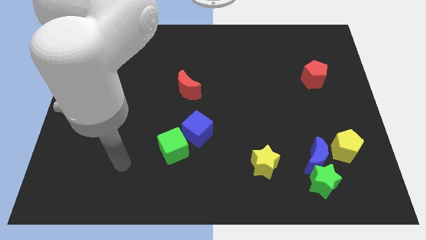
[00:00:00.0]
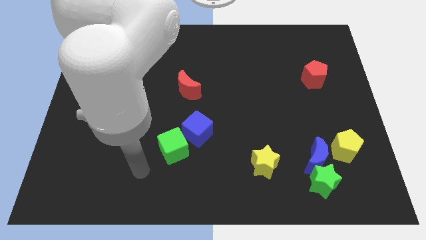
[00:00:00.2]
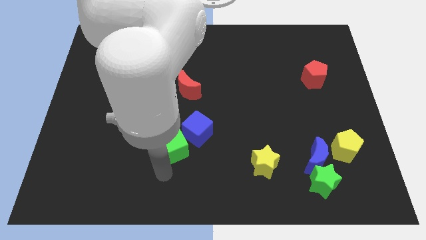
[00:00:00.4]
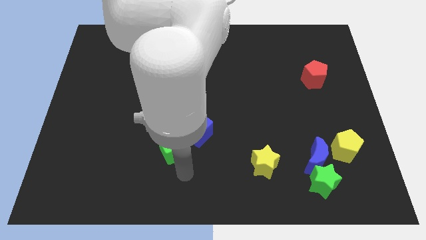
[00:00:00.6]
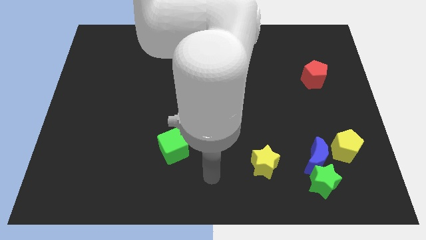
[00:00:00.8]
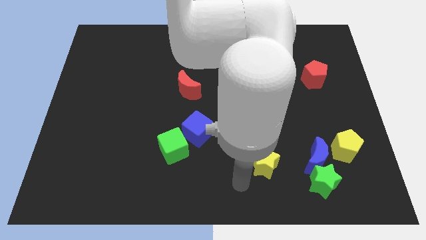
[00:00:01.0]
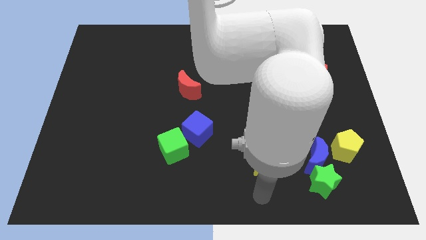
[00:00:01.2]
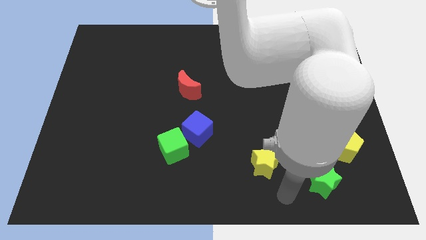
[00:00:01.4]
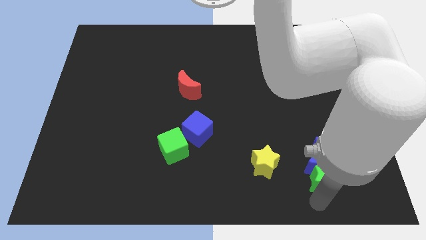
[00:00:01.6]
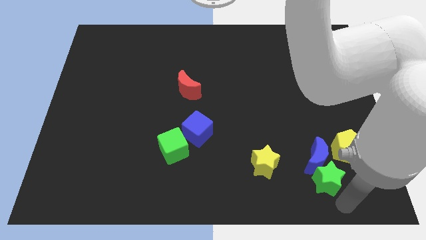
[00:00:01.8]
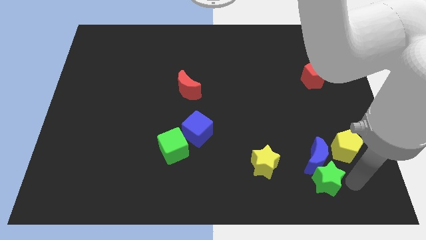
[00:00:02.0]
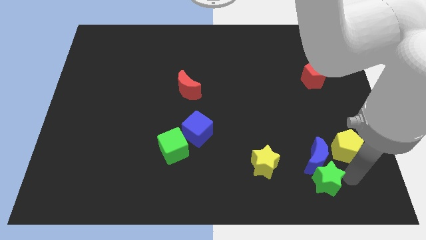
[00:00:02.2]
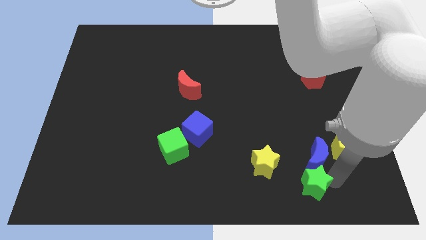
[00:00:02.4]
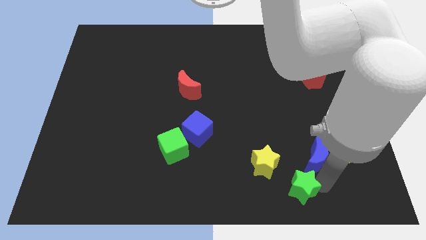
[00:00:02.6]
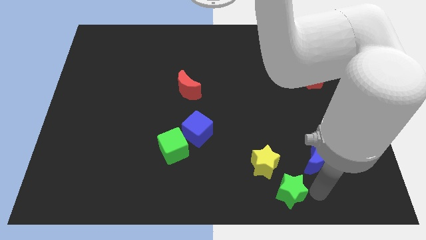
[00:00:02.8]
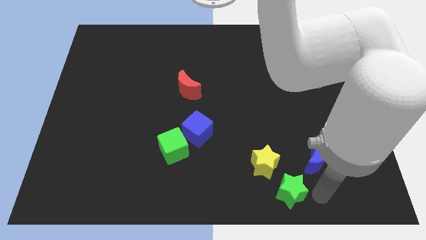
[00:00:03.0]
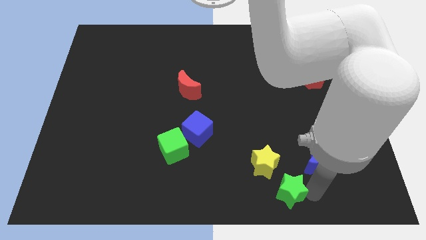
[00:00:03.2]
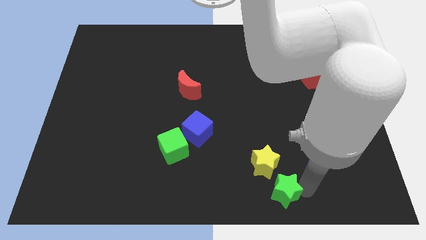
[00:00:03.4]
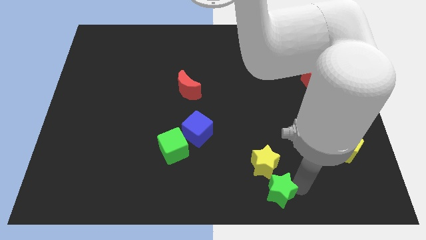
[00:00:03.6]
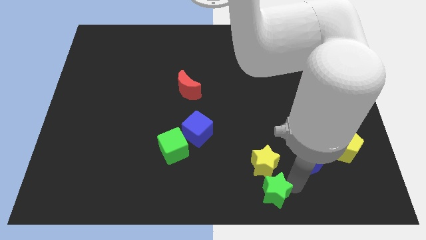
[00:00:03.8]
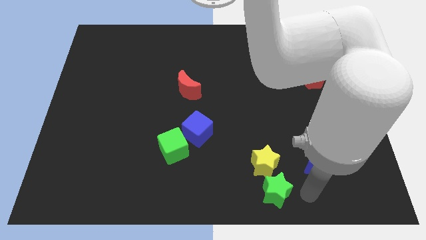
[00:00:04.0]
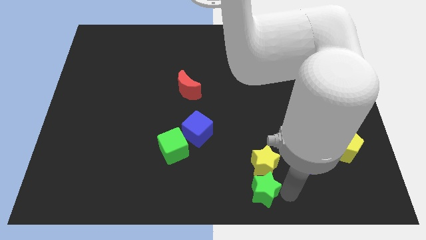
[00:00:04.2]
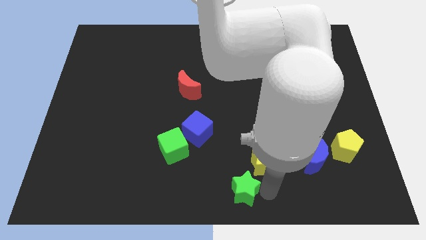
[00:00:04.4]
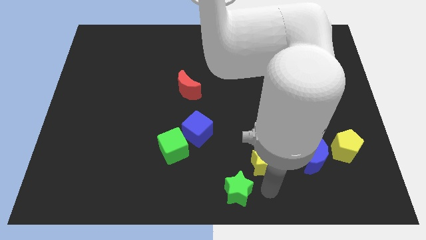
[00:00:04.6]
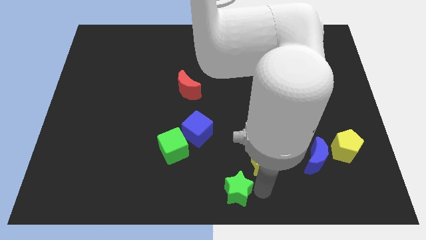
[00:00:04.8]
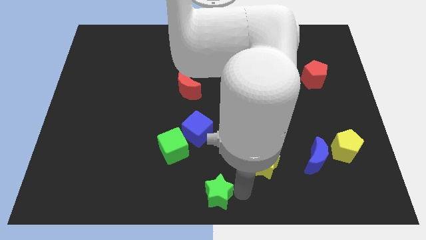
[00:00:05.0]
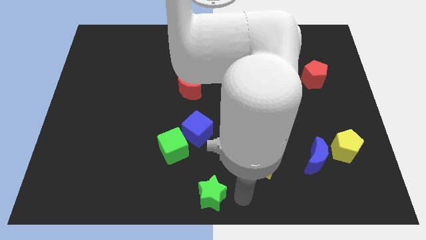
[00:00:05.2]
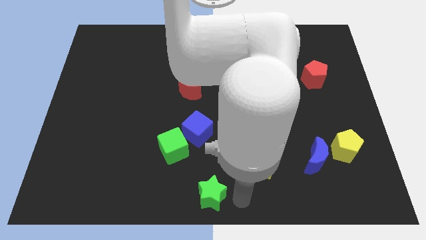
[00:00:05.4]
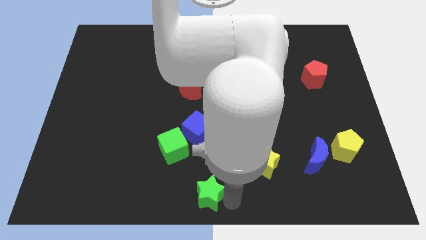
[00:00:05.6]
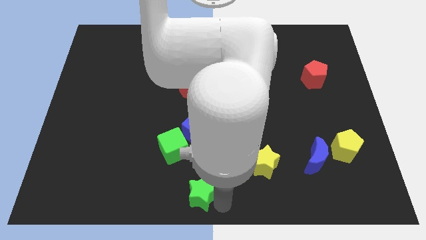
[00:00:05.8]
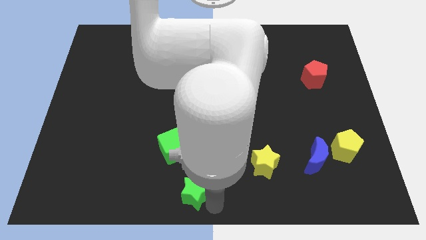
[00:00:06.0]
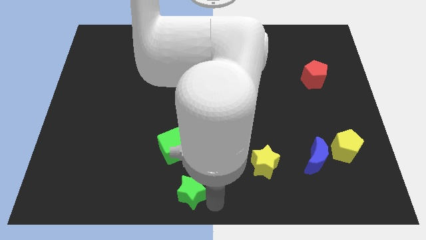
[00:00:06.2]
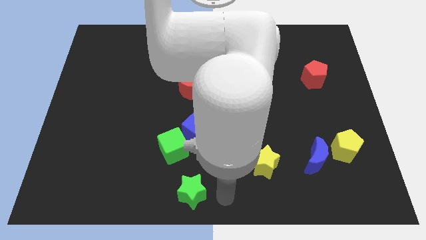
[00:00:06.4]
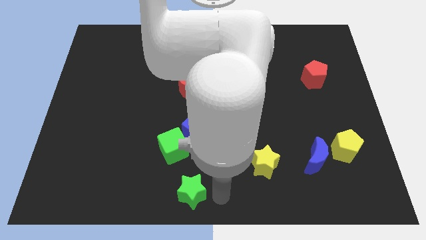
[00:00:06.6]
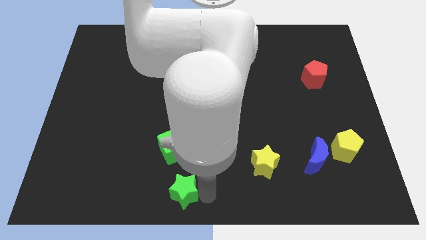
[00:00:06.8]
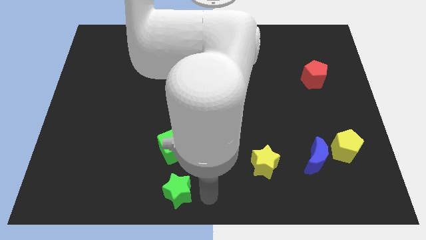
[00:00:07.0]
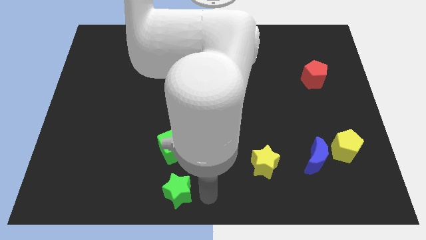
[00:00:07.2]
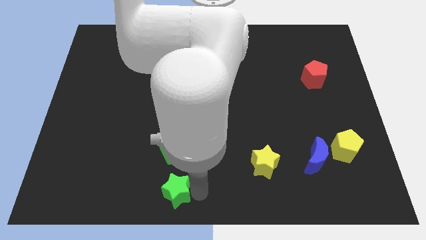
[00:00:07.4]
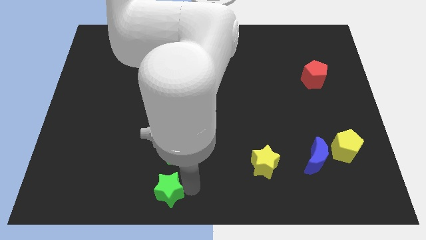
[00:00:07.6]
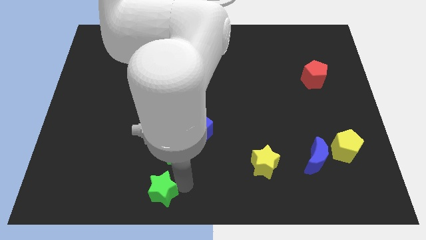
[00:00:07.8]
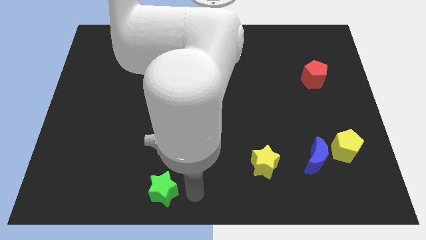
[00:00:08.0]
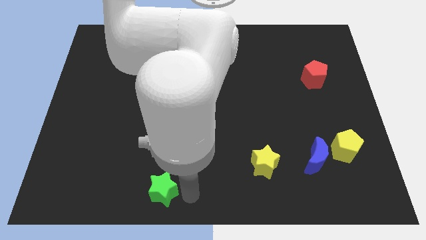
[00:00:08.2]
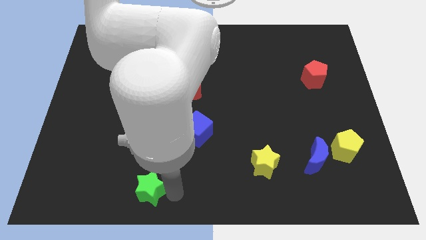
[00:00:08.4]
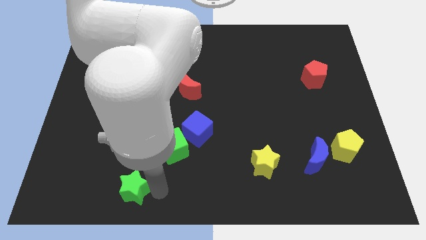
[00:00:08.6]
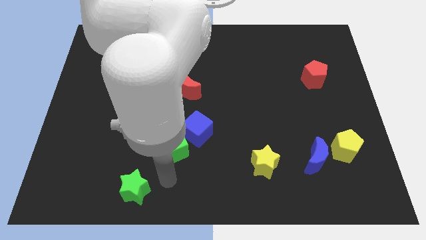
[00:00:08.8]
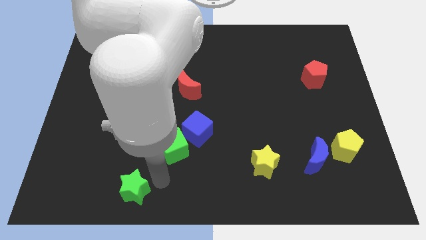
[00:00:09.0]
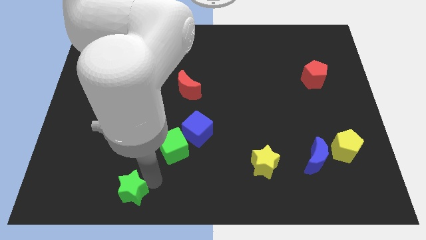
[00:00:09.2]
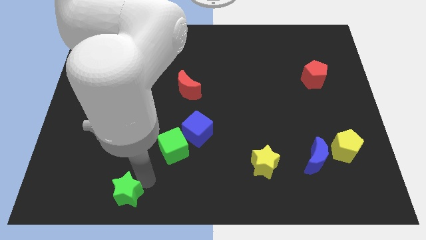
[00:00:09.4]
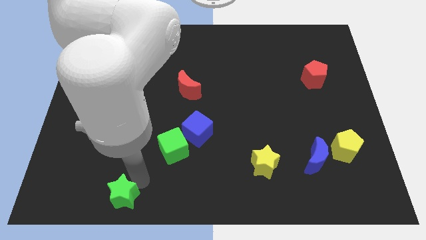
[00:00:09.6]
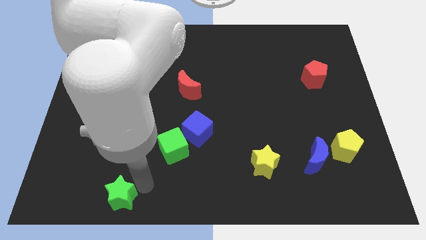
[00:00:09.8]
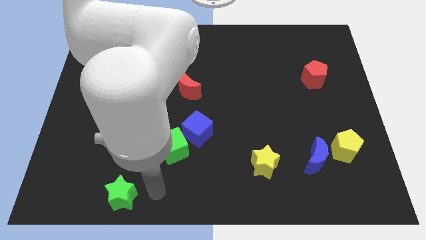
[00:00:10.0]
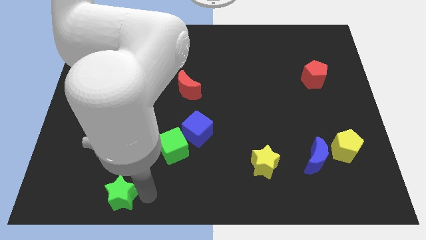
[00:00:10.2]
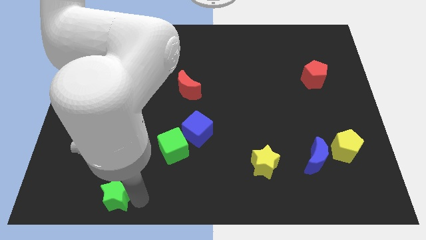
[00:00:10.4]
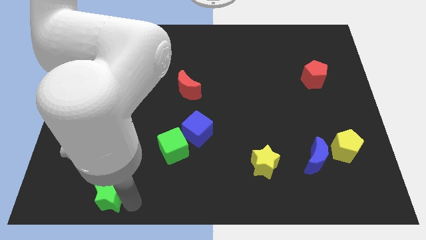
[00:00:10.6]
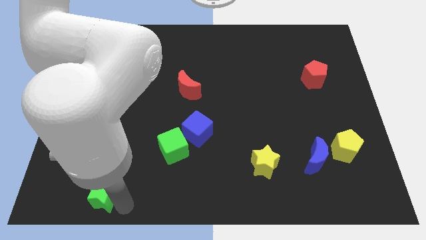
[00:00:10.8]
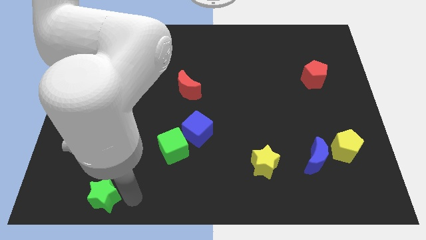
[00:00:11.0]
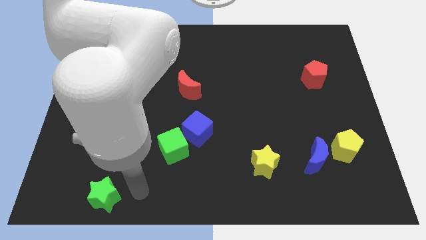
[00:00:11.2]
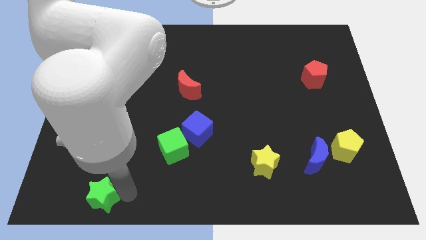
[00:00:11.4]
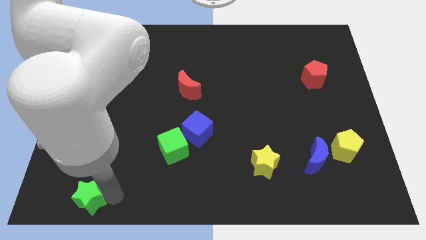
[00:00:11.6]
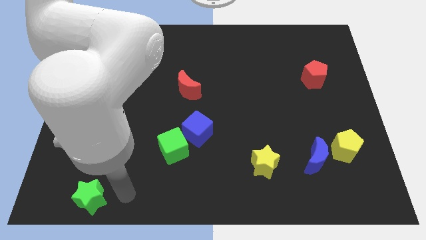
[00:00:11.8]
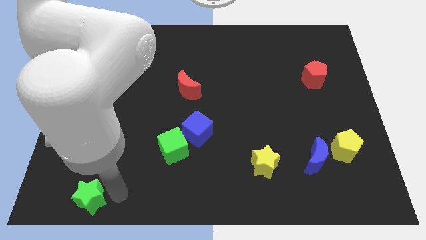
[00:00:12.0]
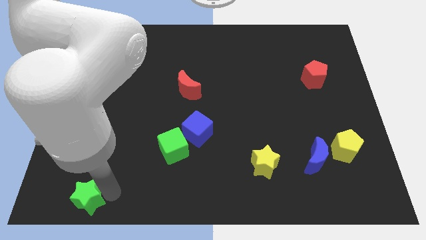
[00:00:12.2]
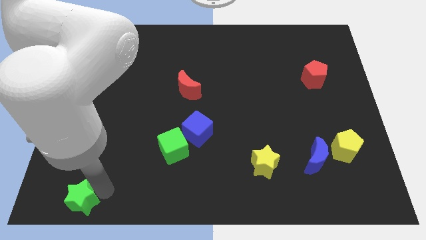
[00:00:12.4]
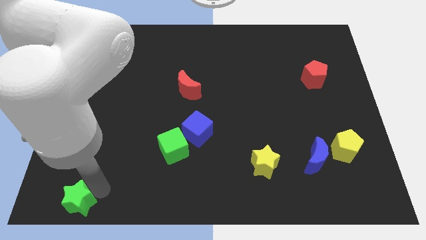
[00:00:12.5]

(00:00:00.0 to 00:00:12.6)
push the green star to the lower left corner

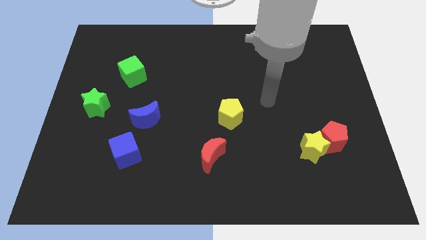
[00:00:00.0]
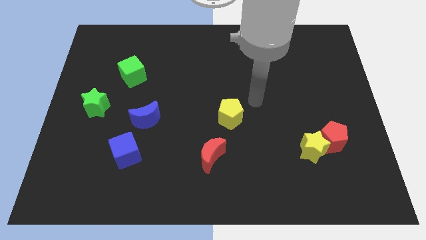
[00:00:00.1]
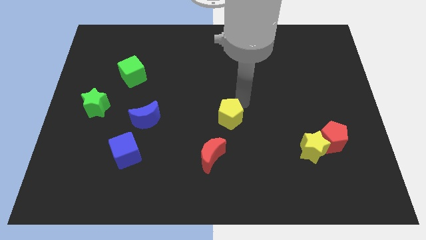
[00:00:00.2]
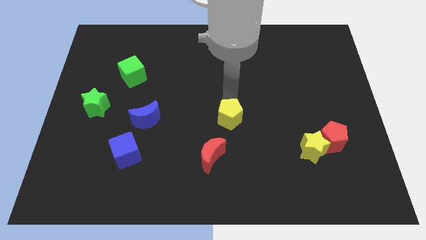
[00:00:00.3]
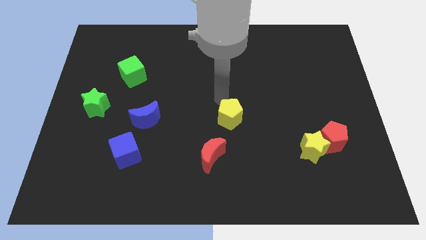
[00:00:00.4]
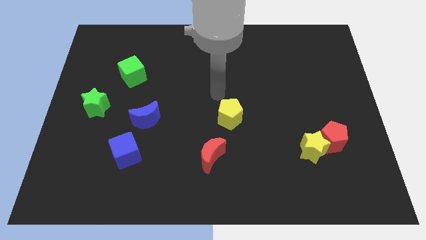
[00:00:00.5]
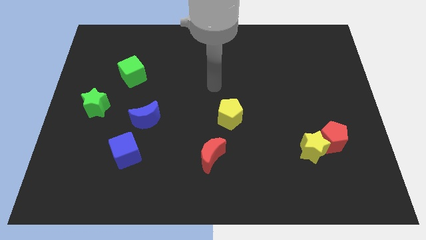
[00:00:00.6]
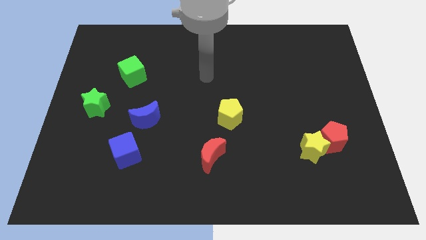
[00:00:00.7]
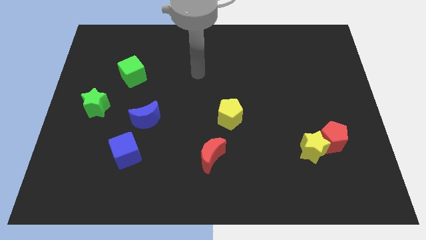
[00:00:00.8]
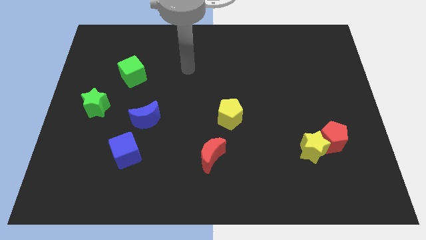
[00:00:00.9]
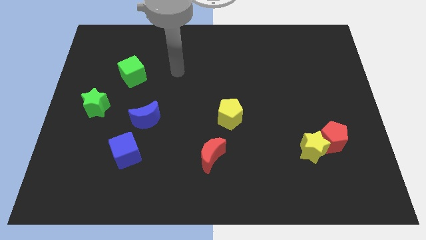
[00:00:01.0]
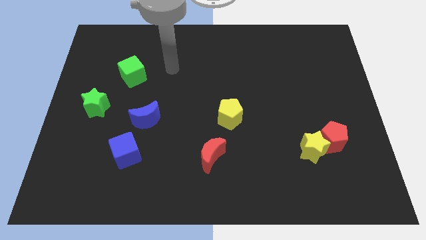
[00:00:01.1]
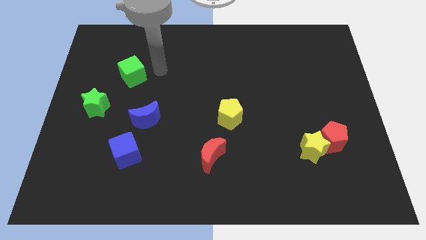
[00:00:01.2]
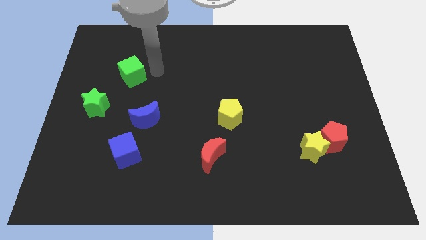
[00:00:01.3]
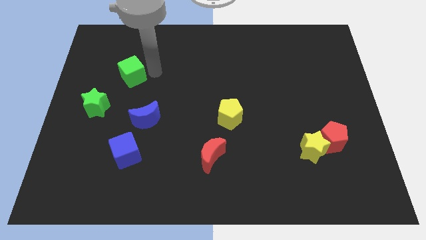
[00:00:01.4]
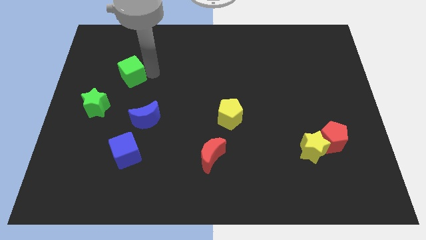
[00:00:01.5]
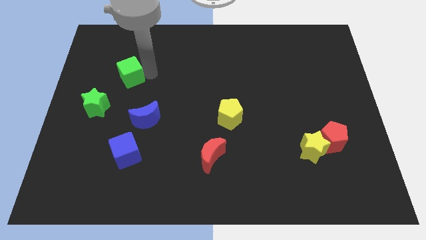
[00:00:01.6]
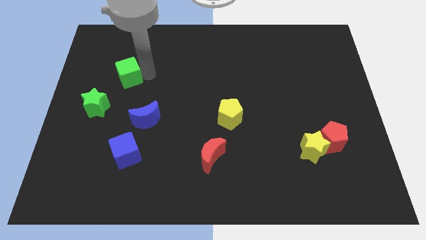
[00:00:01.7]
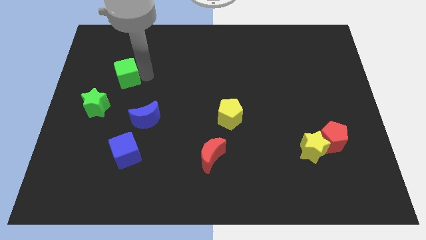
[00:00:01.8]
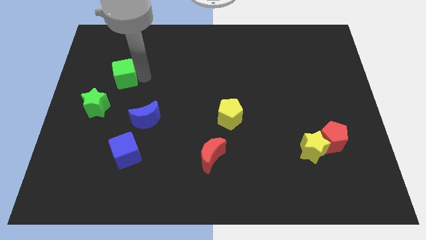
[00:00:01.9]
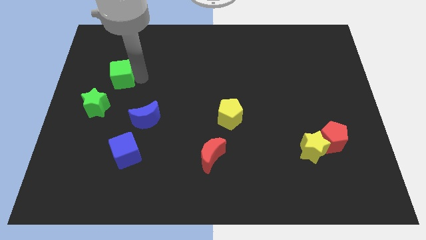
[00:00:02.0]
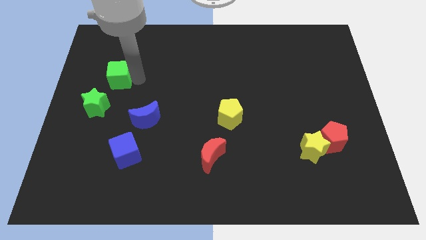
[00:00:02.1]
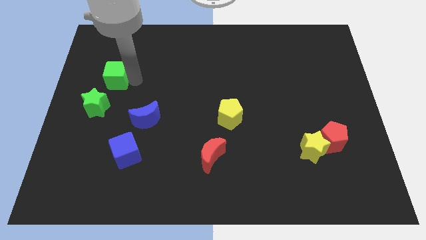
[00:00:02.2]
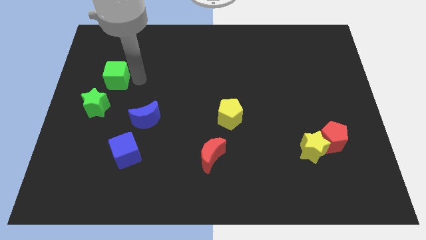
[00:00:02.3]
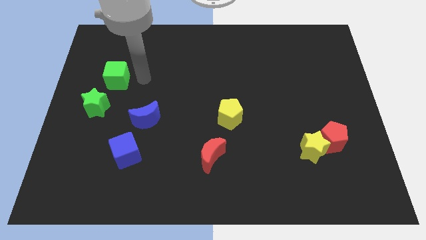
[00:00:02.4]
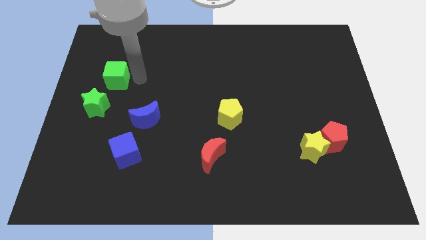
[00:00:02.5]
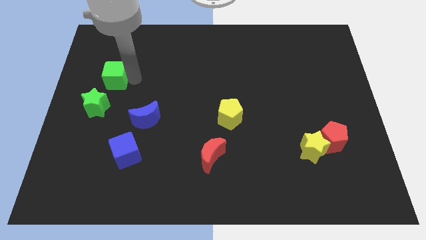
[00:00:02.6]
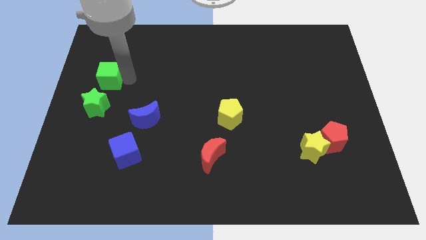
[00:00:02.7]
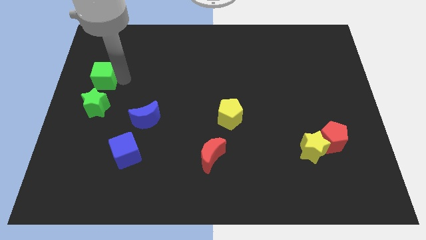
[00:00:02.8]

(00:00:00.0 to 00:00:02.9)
put the green cube to the left side of the board
